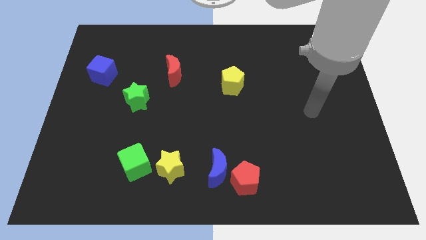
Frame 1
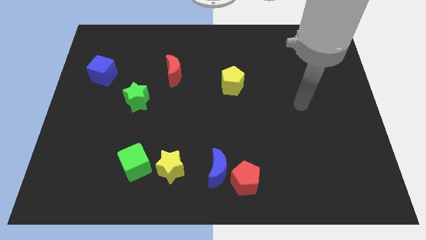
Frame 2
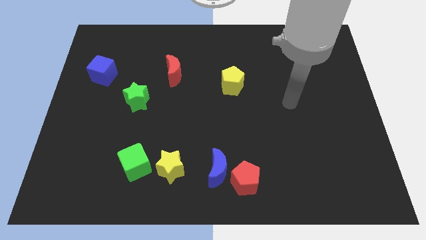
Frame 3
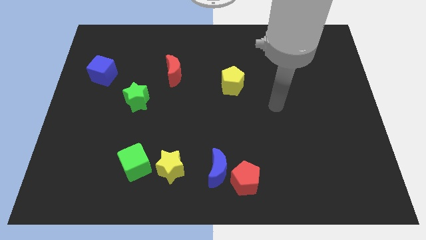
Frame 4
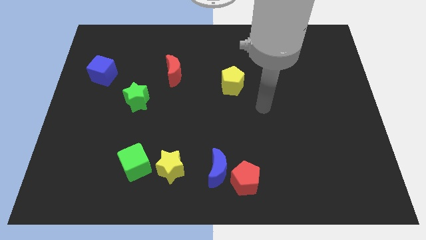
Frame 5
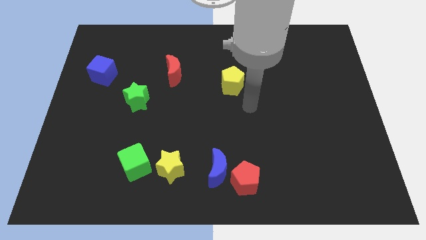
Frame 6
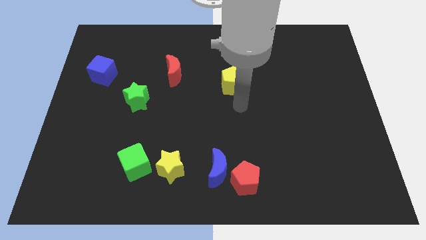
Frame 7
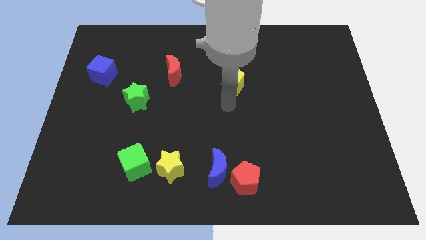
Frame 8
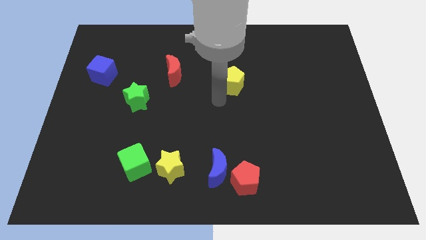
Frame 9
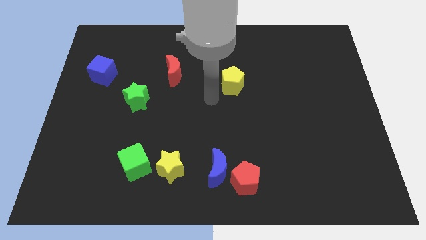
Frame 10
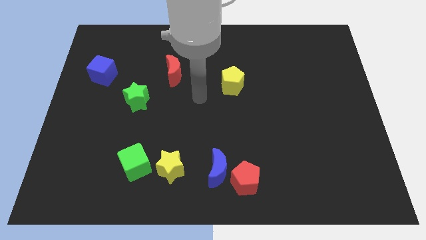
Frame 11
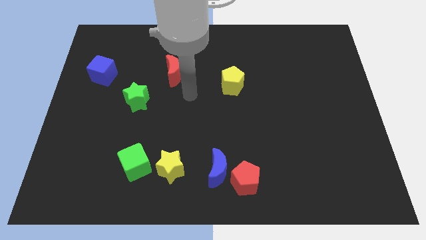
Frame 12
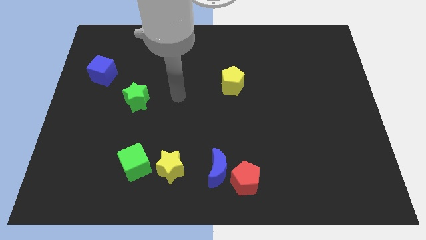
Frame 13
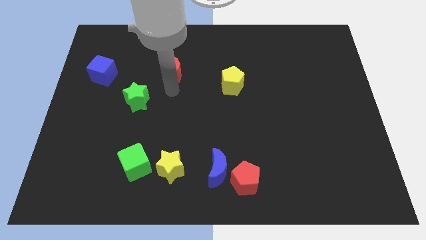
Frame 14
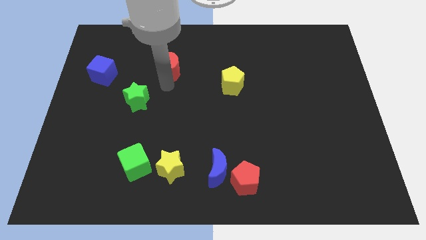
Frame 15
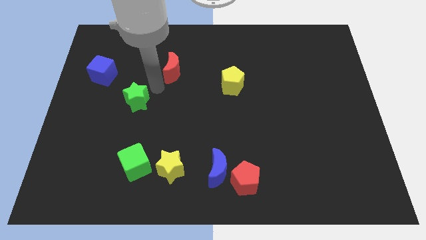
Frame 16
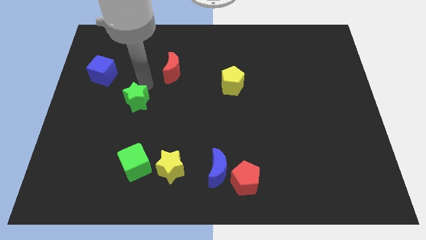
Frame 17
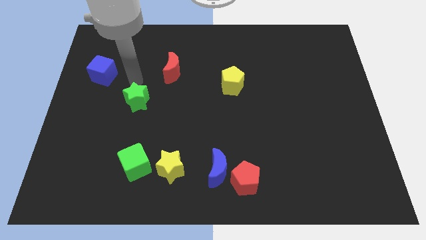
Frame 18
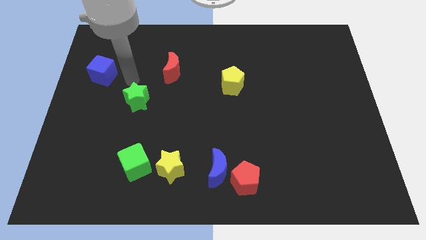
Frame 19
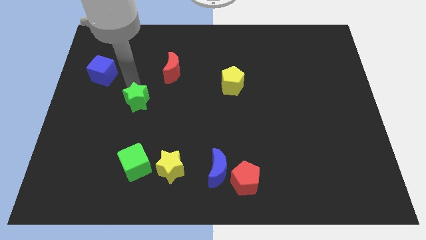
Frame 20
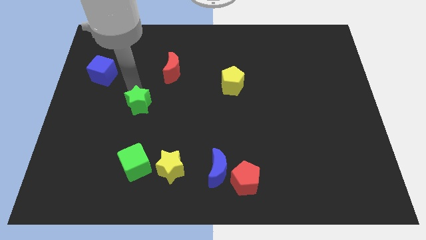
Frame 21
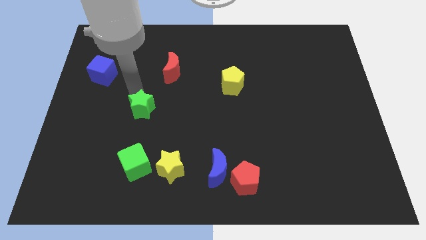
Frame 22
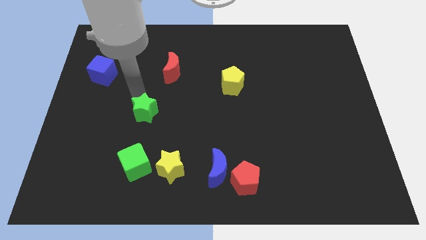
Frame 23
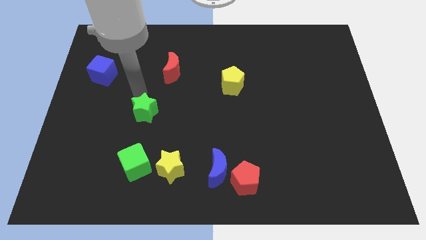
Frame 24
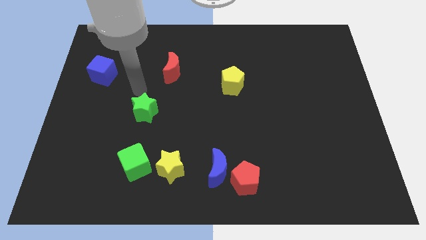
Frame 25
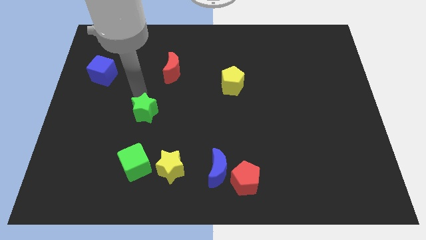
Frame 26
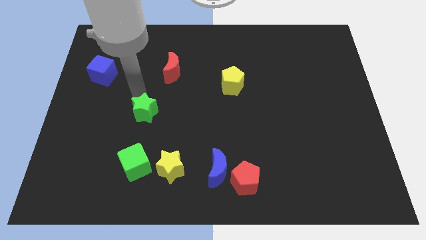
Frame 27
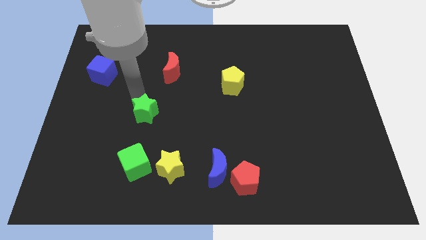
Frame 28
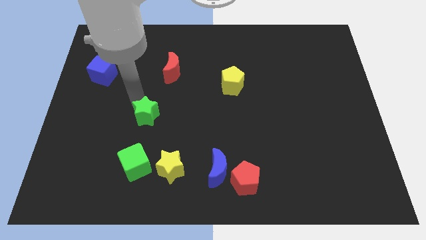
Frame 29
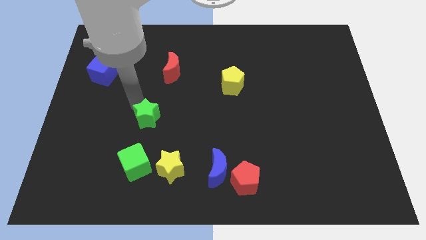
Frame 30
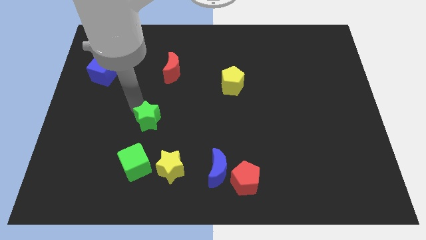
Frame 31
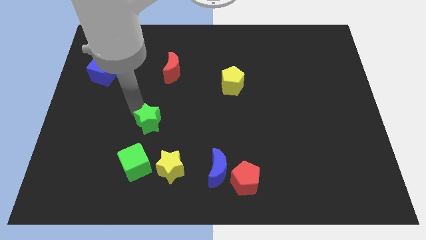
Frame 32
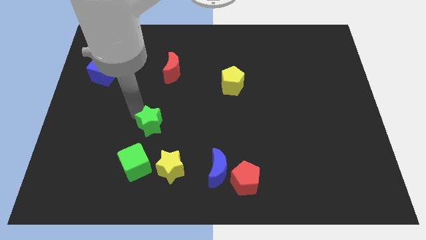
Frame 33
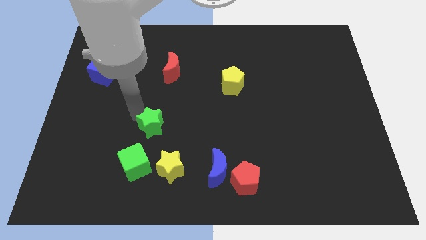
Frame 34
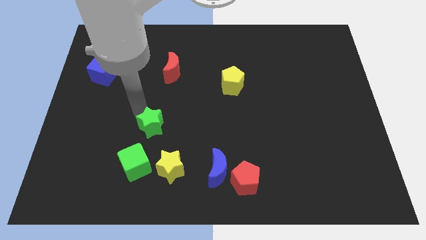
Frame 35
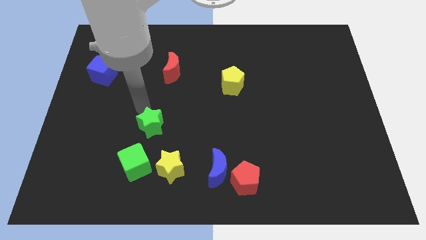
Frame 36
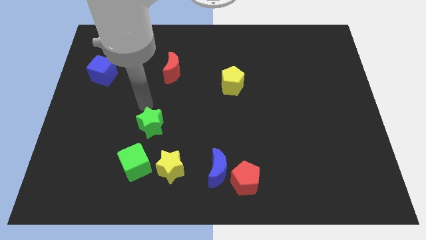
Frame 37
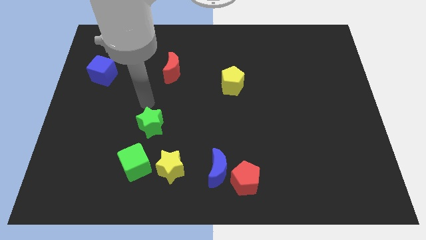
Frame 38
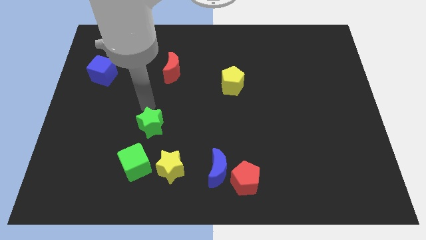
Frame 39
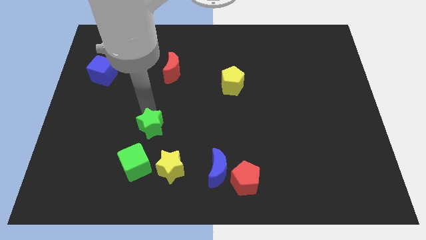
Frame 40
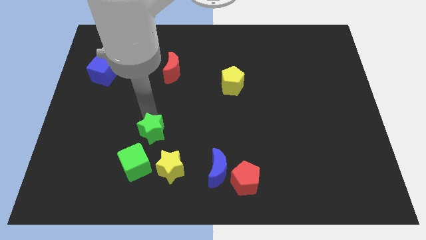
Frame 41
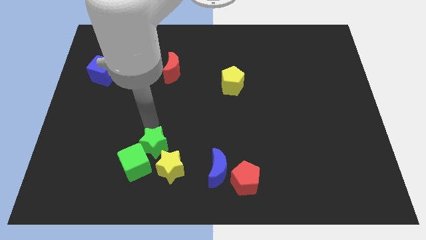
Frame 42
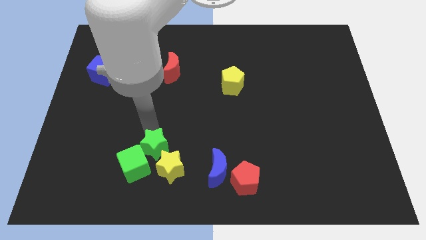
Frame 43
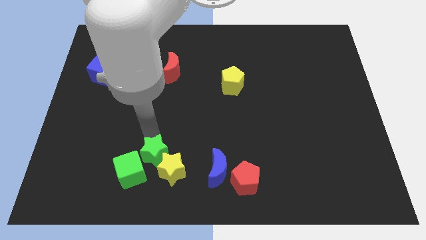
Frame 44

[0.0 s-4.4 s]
move the green star towards the yellow star

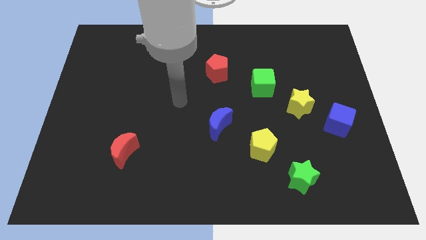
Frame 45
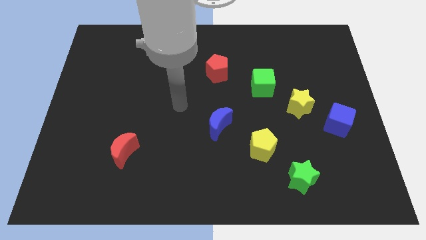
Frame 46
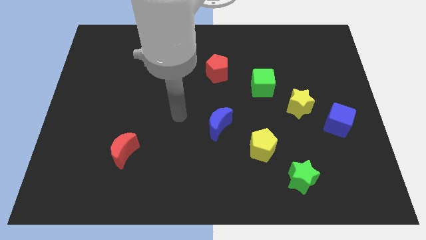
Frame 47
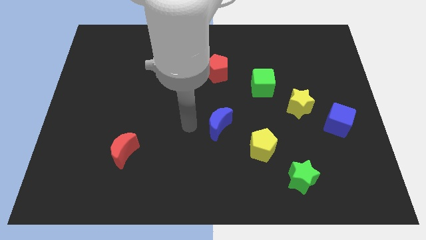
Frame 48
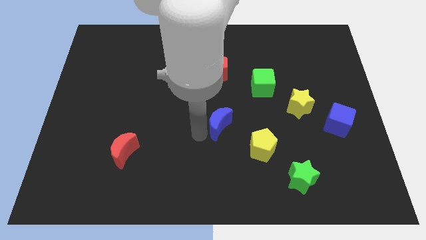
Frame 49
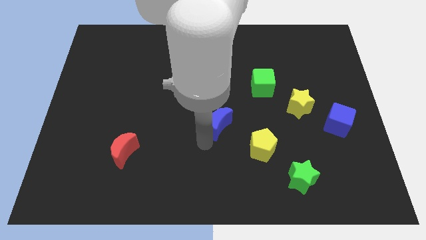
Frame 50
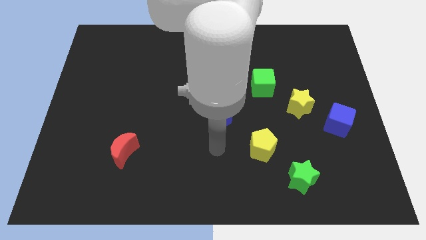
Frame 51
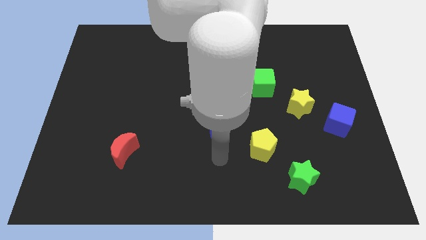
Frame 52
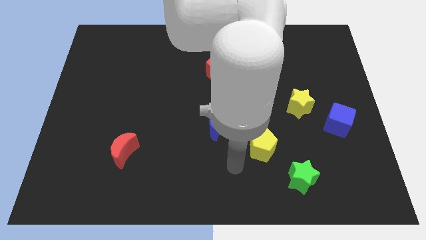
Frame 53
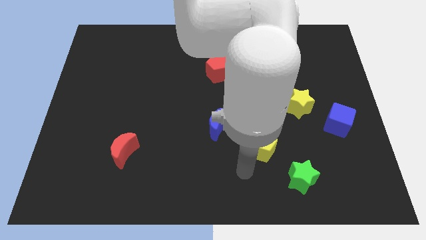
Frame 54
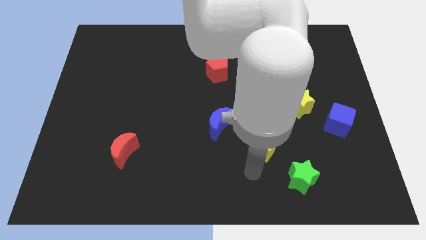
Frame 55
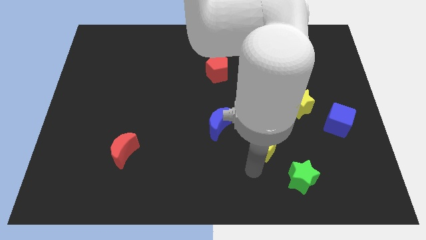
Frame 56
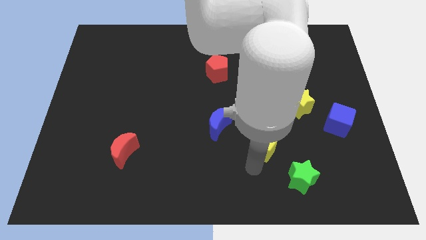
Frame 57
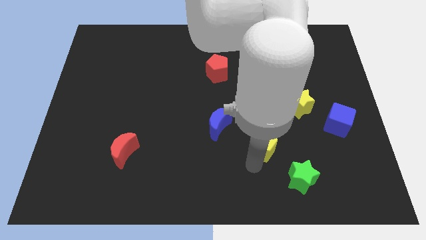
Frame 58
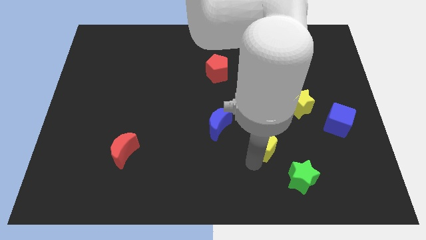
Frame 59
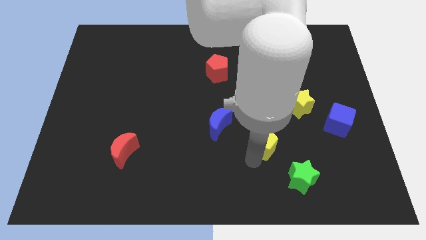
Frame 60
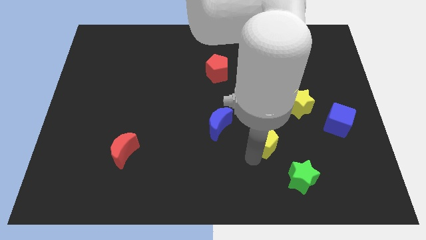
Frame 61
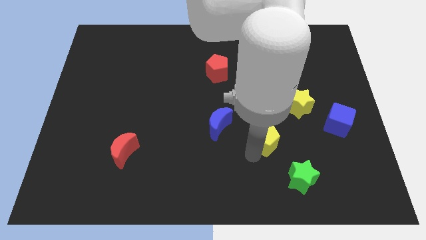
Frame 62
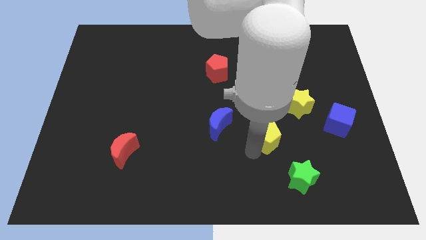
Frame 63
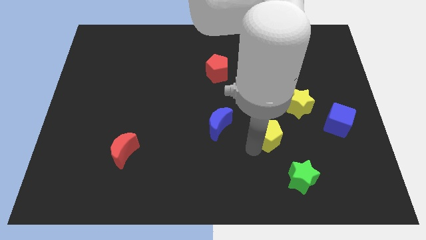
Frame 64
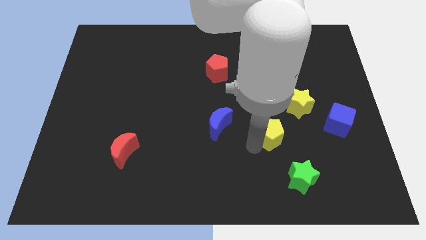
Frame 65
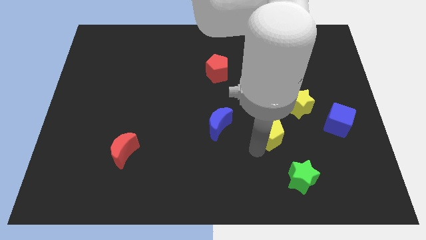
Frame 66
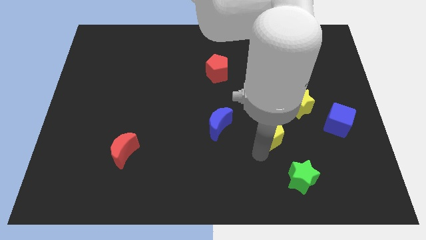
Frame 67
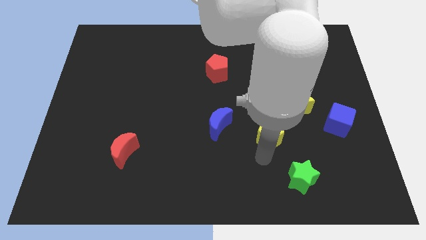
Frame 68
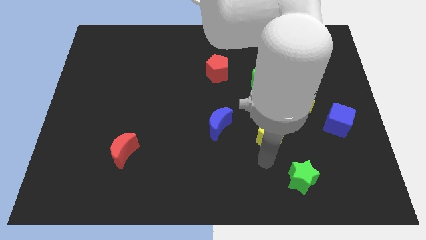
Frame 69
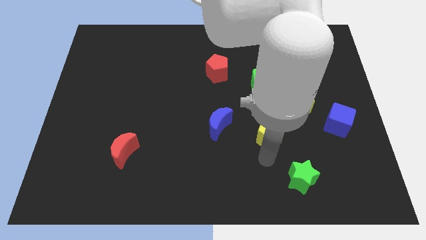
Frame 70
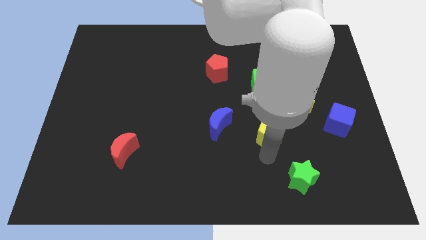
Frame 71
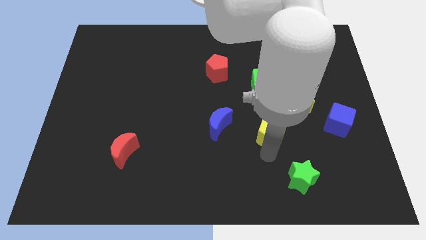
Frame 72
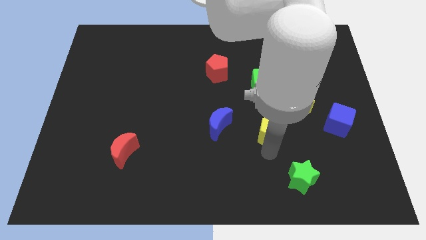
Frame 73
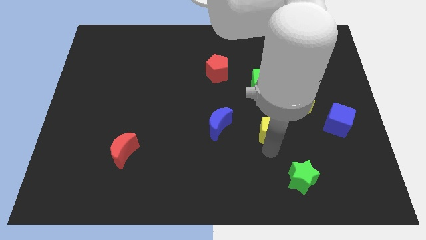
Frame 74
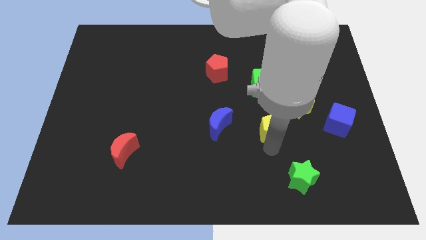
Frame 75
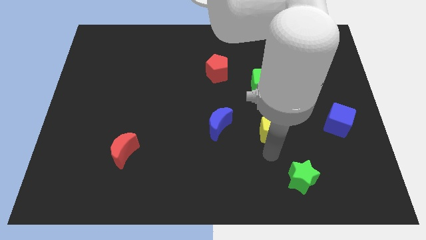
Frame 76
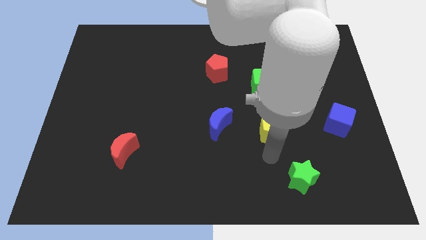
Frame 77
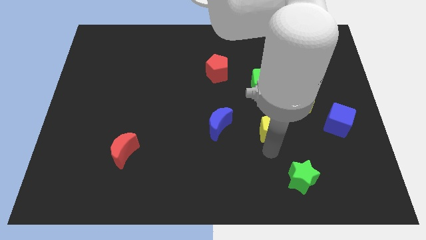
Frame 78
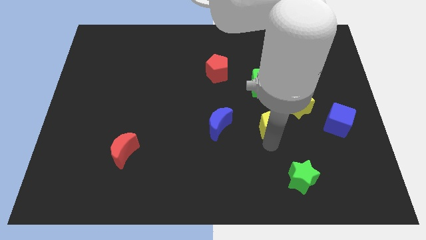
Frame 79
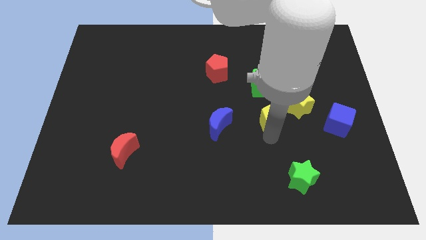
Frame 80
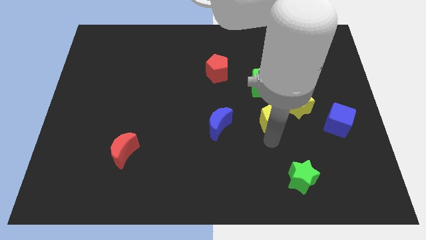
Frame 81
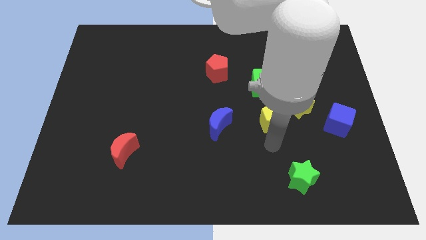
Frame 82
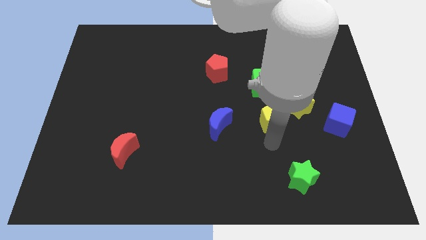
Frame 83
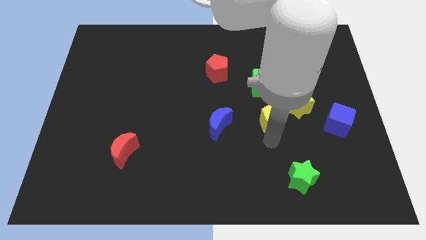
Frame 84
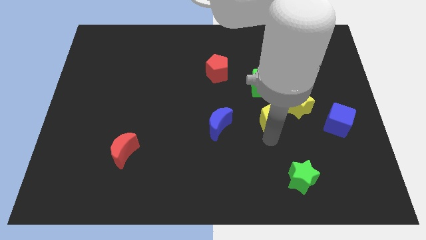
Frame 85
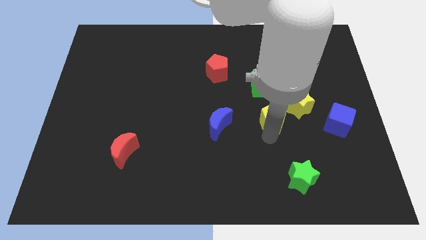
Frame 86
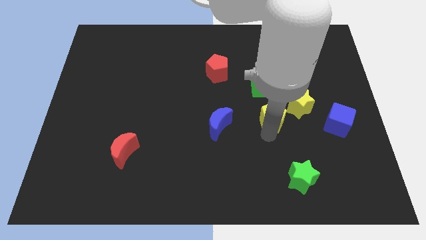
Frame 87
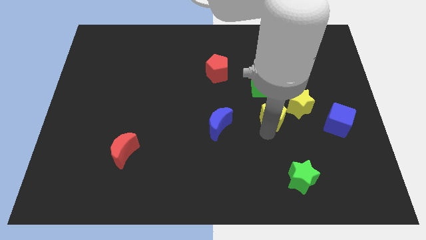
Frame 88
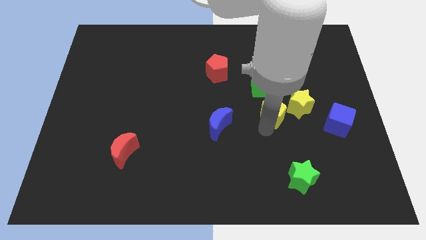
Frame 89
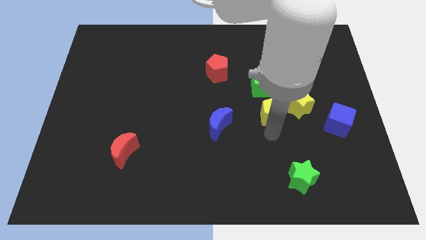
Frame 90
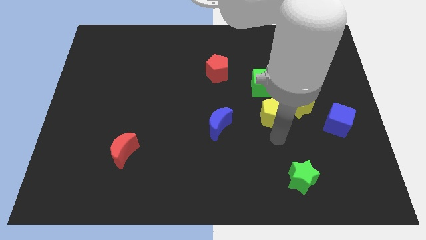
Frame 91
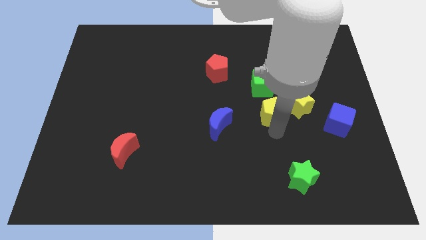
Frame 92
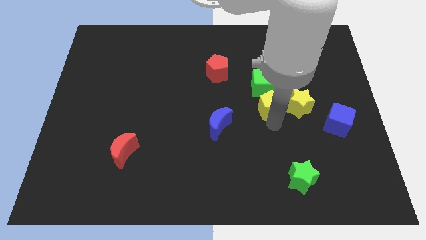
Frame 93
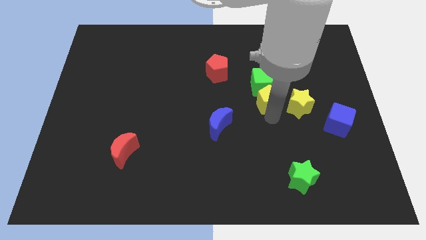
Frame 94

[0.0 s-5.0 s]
move the yellow pentagon next to the green cube
